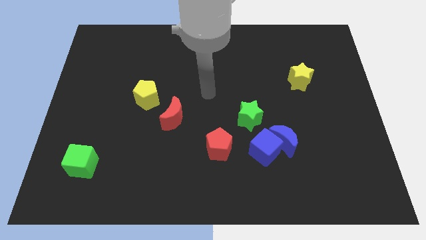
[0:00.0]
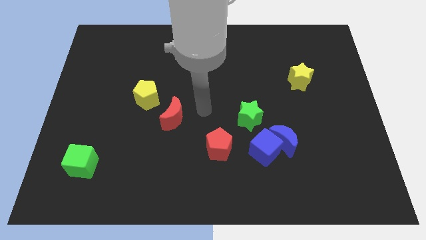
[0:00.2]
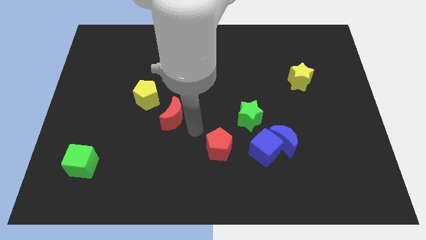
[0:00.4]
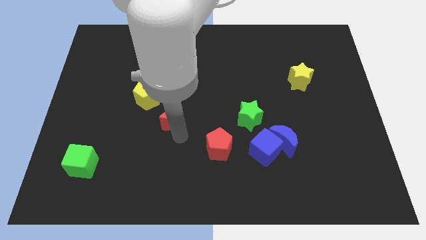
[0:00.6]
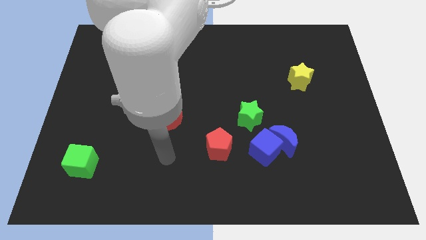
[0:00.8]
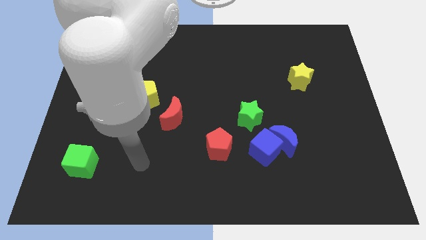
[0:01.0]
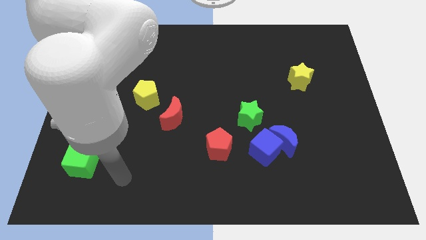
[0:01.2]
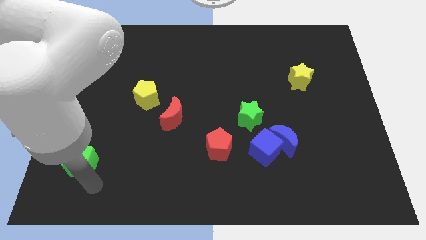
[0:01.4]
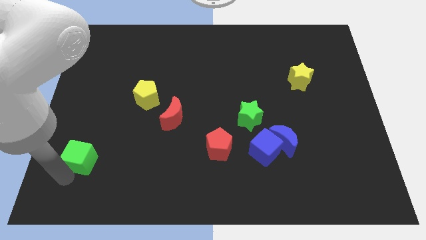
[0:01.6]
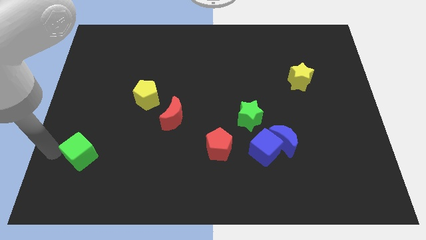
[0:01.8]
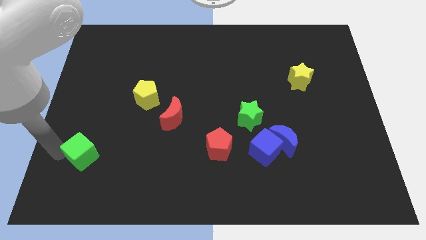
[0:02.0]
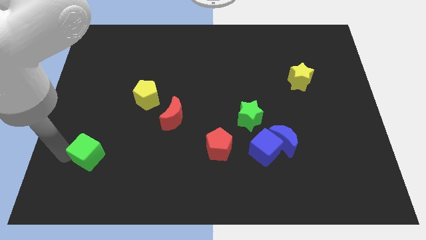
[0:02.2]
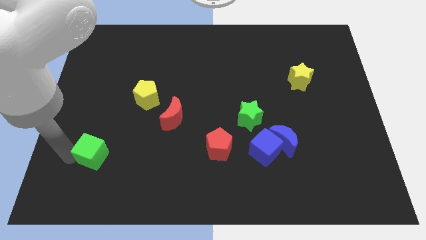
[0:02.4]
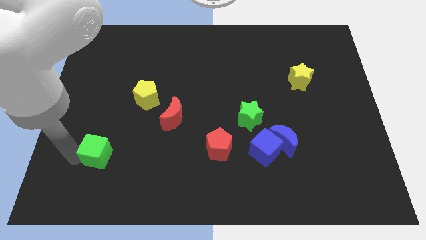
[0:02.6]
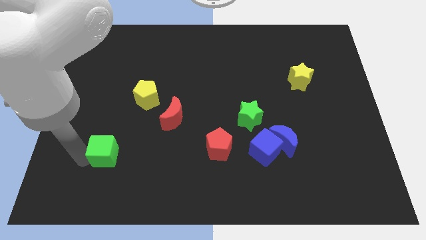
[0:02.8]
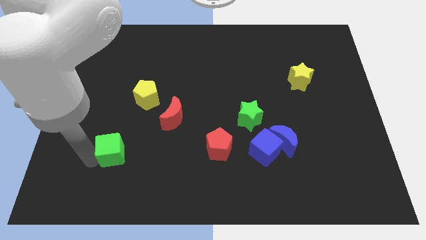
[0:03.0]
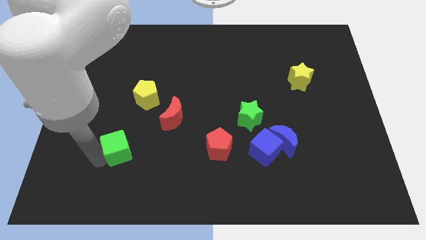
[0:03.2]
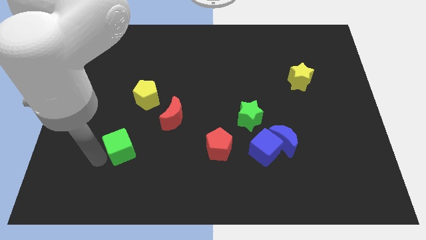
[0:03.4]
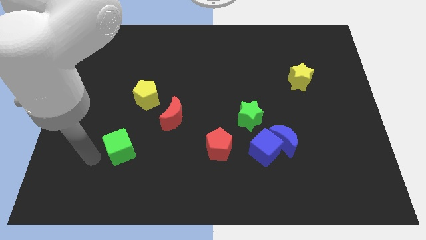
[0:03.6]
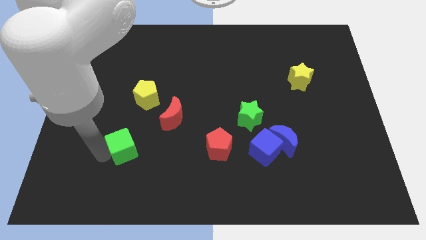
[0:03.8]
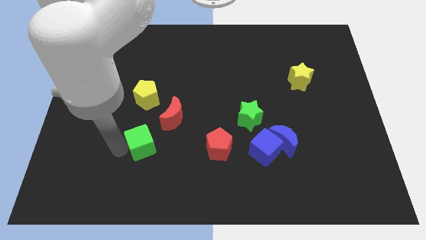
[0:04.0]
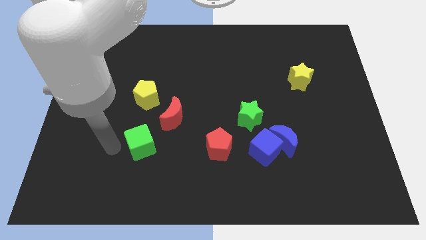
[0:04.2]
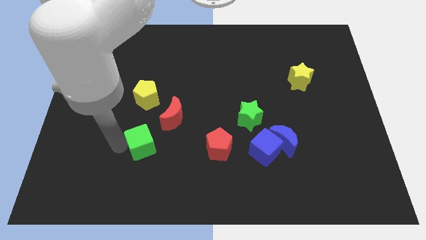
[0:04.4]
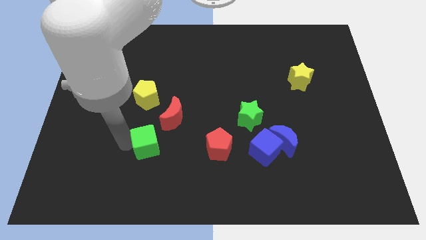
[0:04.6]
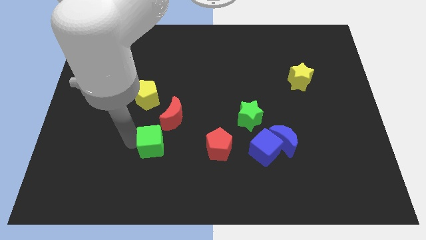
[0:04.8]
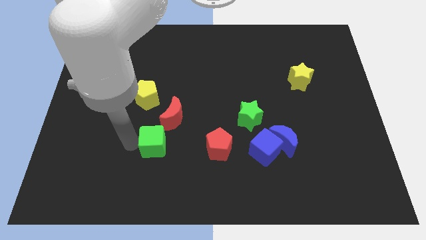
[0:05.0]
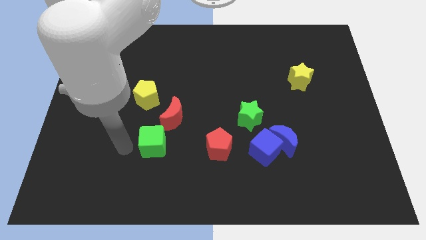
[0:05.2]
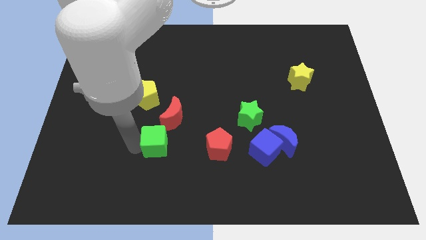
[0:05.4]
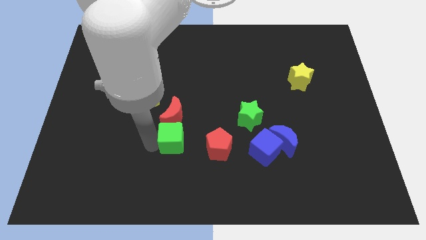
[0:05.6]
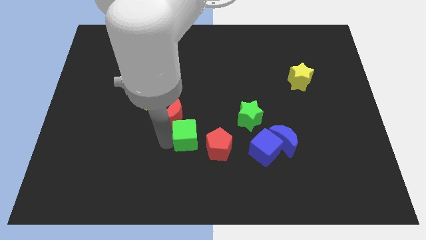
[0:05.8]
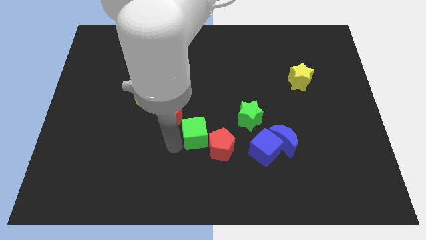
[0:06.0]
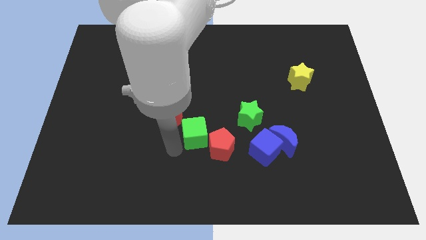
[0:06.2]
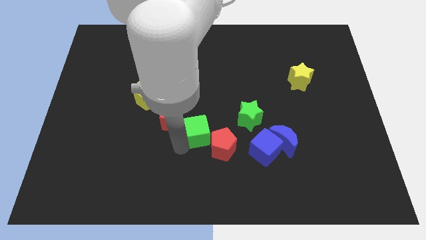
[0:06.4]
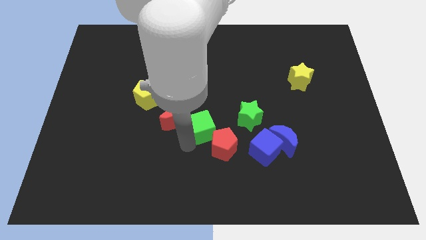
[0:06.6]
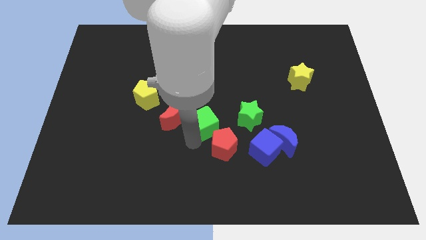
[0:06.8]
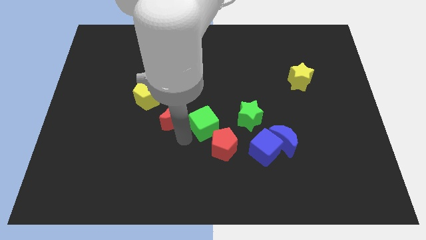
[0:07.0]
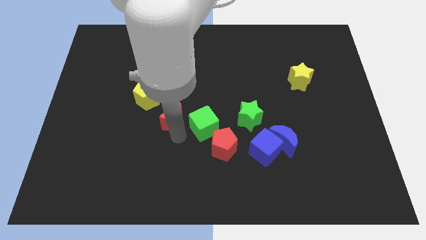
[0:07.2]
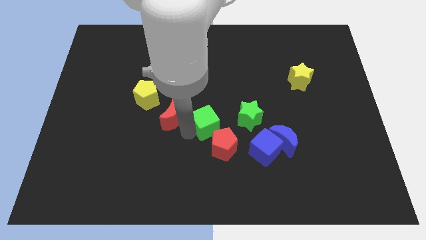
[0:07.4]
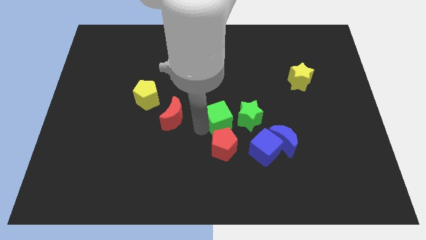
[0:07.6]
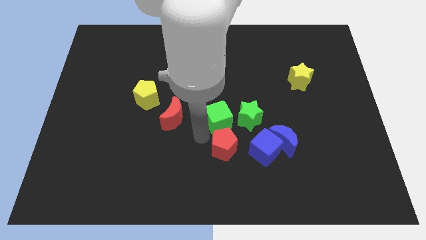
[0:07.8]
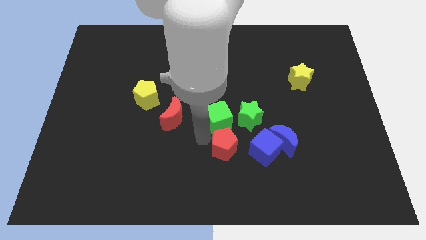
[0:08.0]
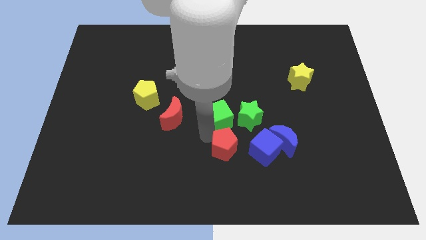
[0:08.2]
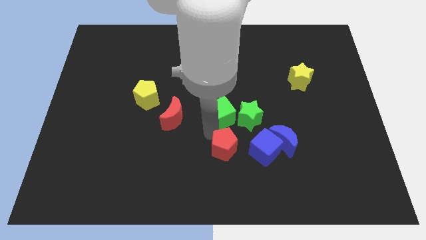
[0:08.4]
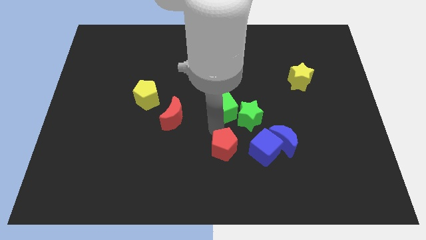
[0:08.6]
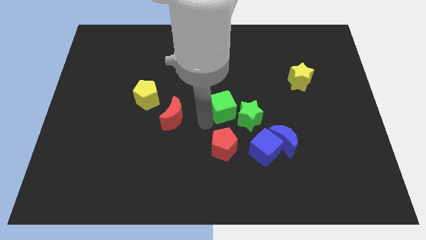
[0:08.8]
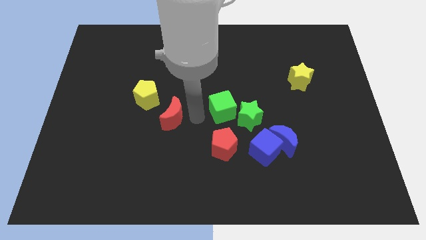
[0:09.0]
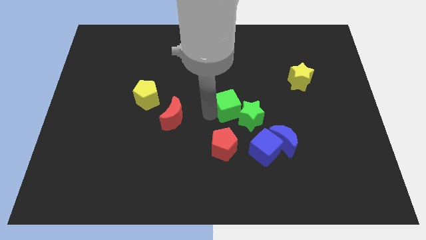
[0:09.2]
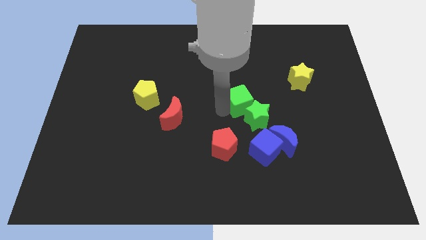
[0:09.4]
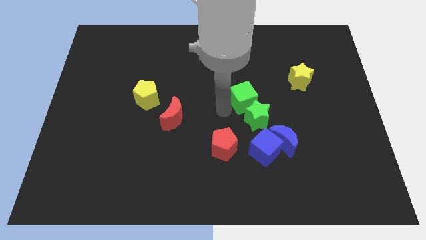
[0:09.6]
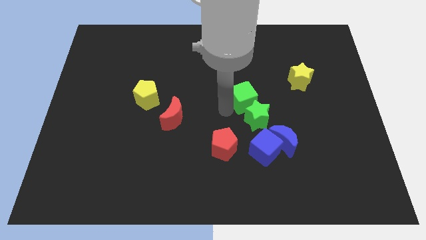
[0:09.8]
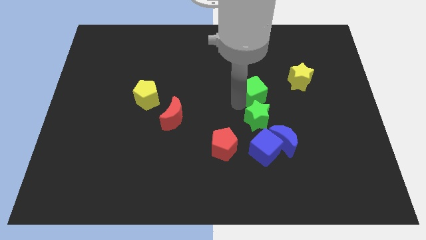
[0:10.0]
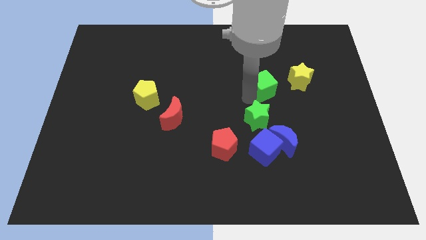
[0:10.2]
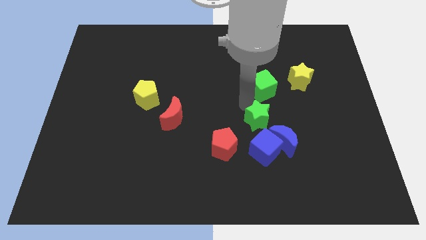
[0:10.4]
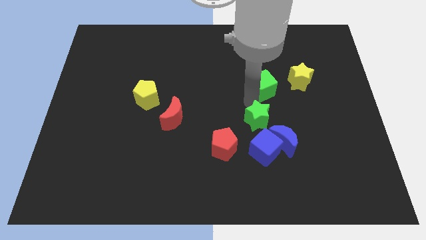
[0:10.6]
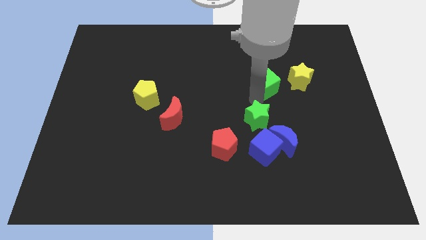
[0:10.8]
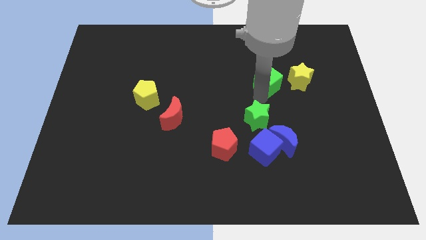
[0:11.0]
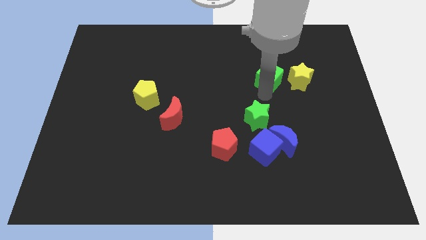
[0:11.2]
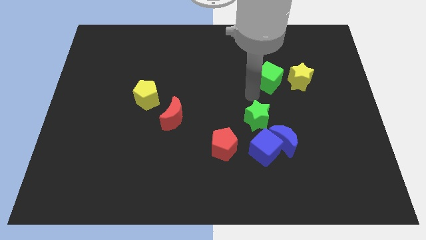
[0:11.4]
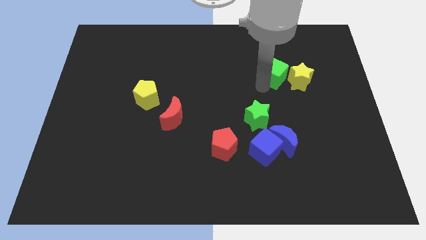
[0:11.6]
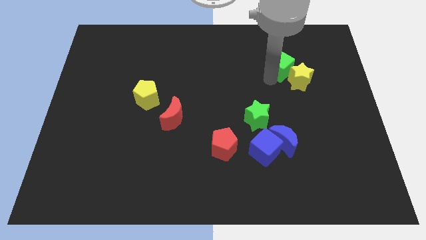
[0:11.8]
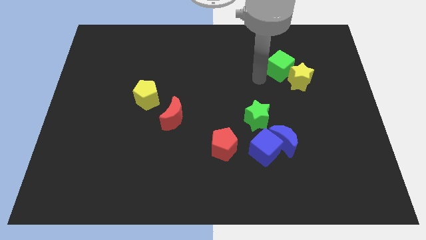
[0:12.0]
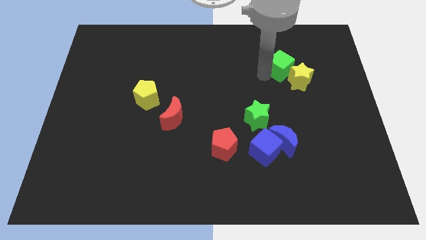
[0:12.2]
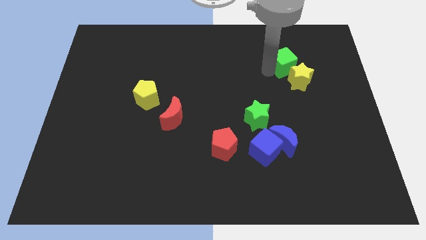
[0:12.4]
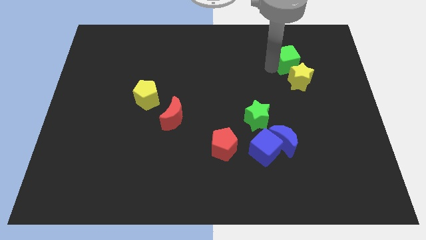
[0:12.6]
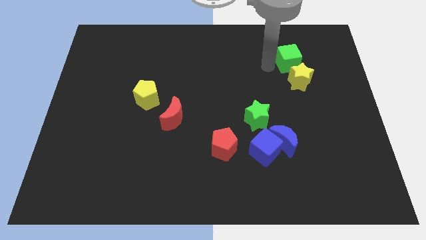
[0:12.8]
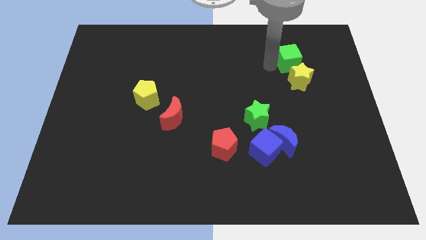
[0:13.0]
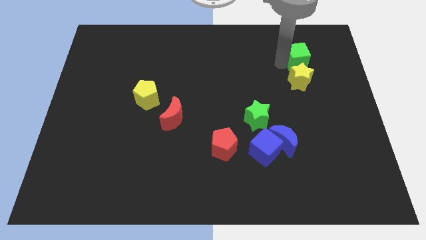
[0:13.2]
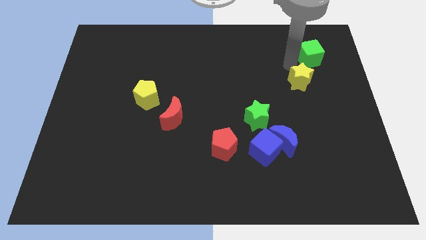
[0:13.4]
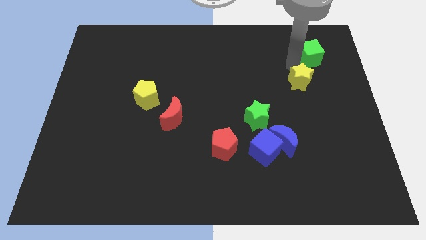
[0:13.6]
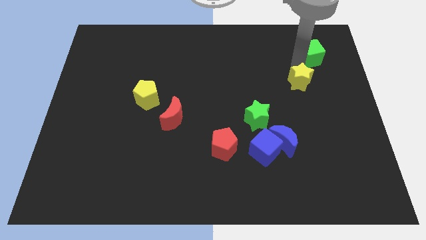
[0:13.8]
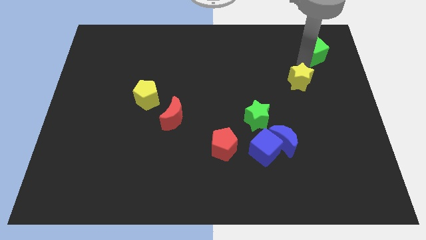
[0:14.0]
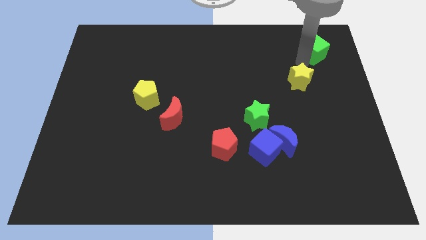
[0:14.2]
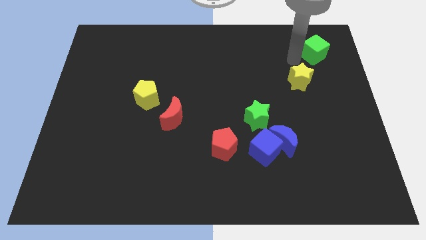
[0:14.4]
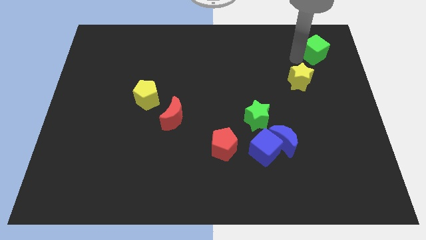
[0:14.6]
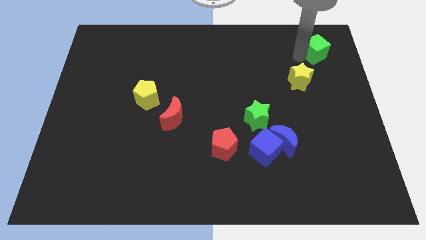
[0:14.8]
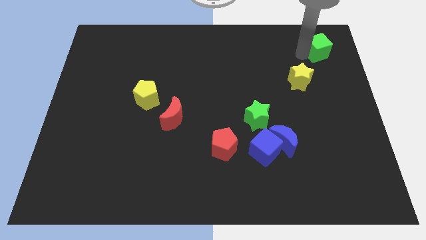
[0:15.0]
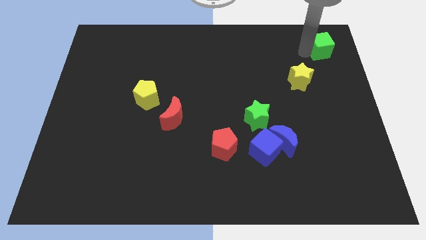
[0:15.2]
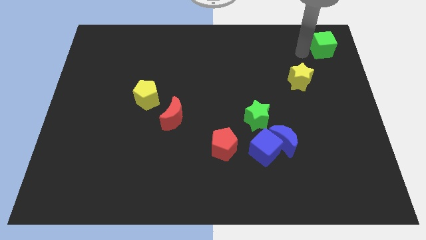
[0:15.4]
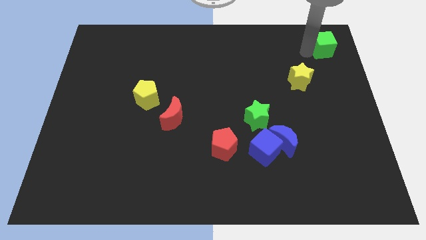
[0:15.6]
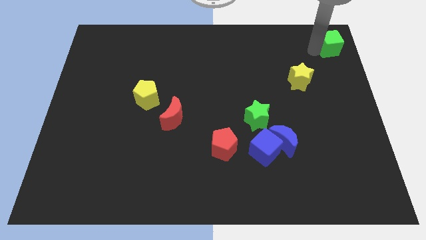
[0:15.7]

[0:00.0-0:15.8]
put the green cube to the top right corner
